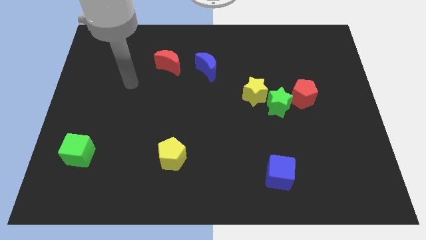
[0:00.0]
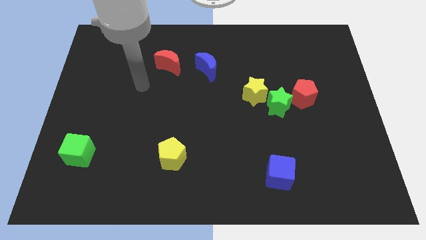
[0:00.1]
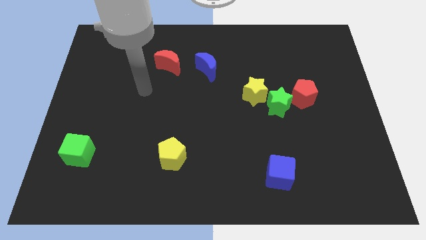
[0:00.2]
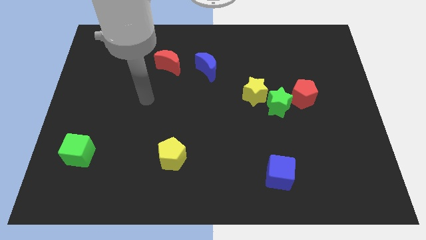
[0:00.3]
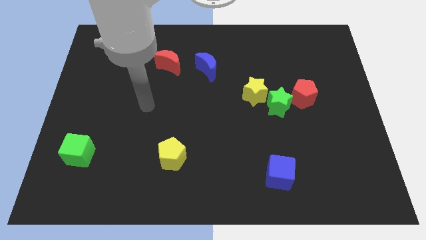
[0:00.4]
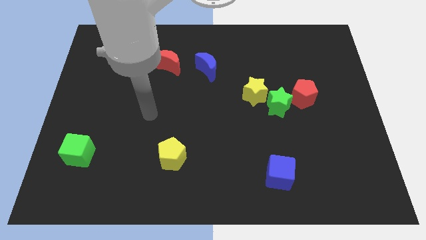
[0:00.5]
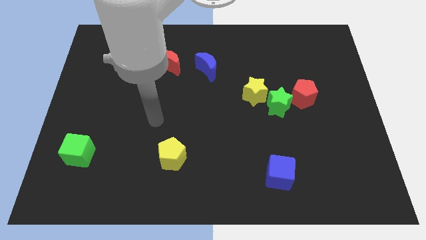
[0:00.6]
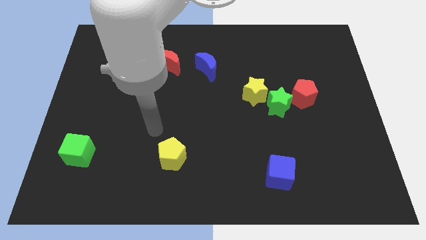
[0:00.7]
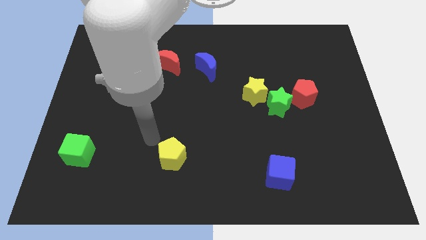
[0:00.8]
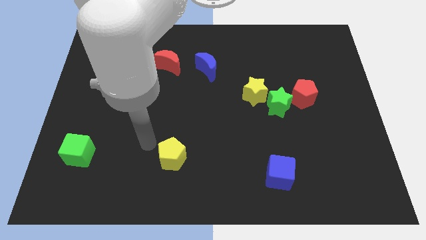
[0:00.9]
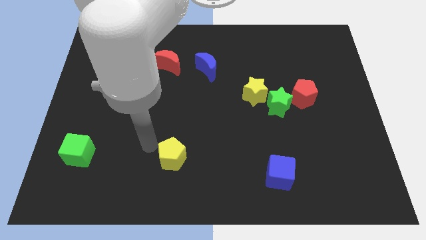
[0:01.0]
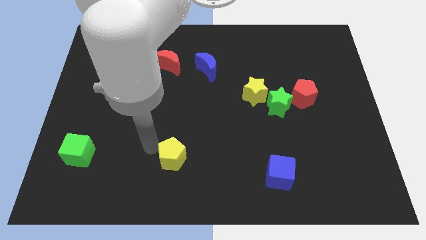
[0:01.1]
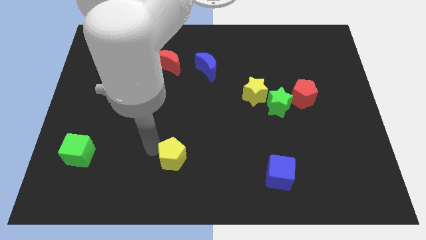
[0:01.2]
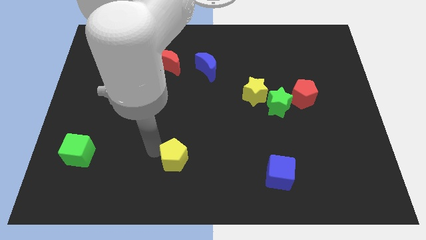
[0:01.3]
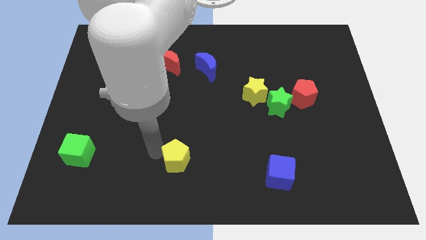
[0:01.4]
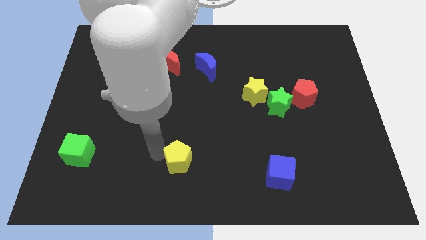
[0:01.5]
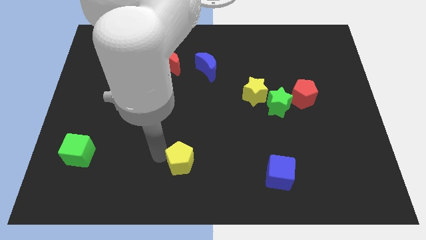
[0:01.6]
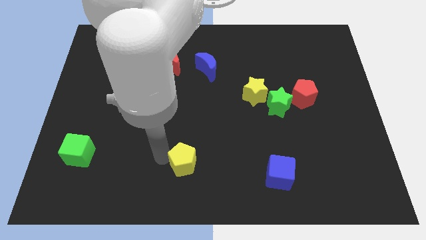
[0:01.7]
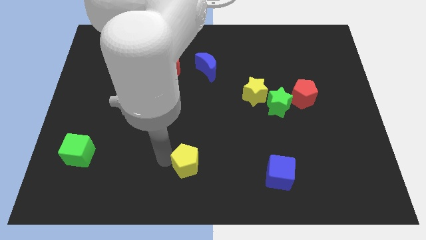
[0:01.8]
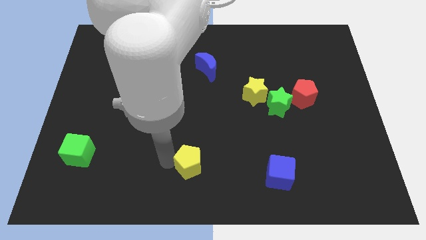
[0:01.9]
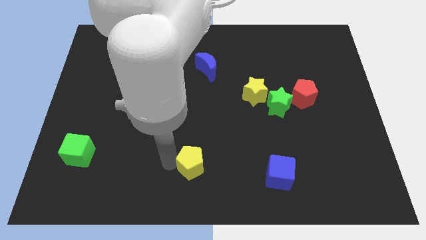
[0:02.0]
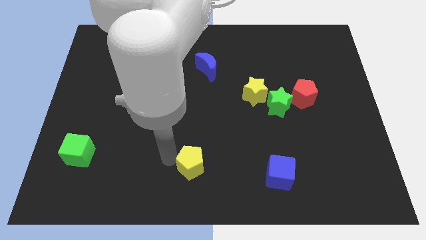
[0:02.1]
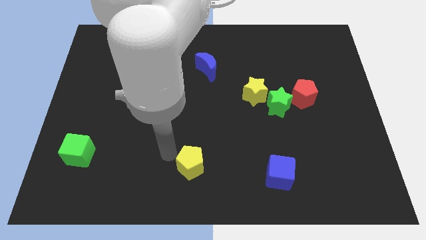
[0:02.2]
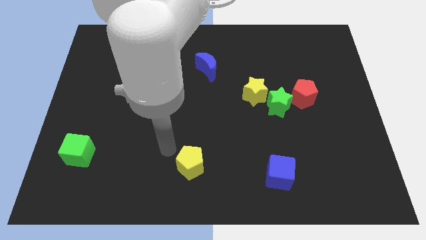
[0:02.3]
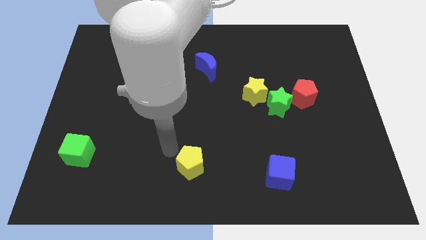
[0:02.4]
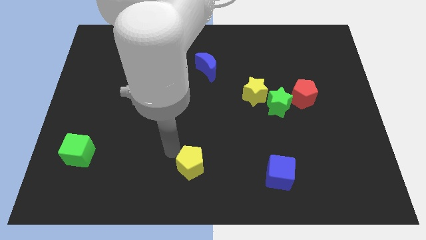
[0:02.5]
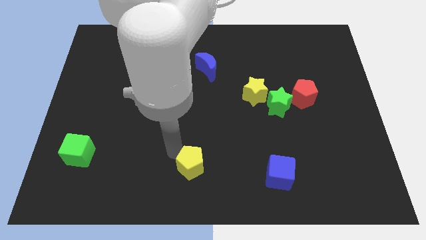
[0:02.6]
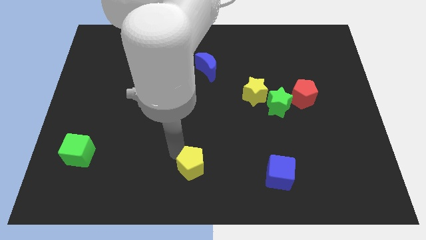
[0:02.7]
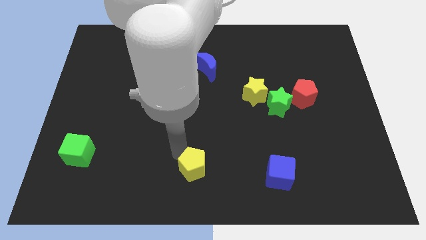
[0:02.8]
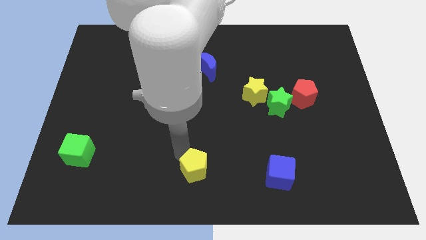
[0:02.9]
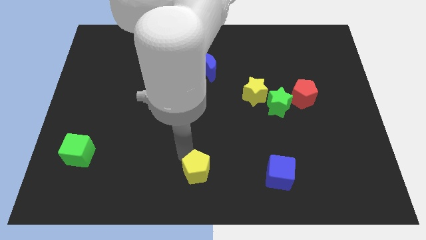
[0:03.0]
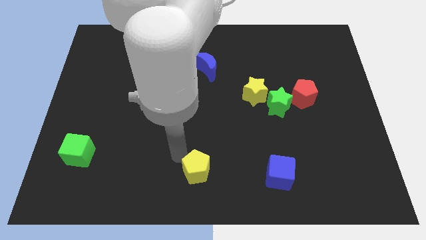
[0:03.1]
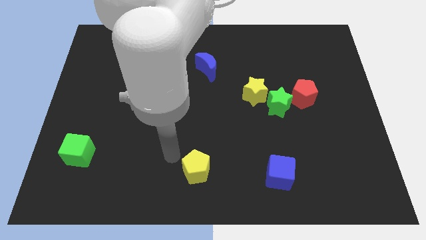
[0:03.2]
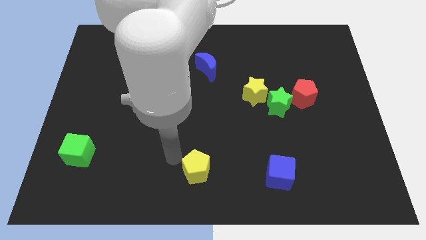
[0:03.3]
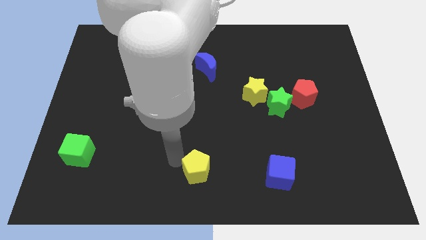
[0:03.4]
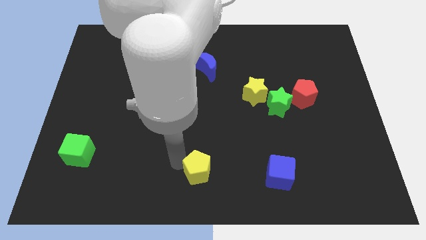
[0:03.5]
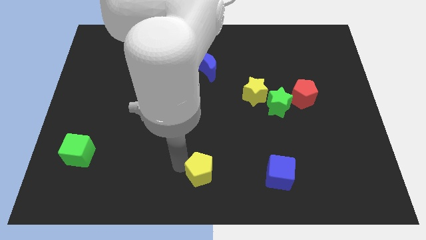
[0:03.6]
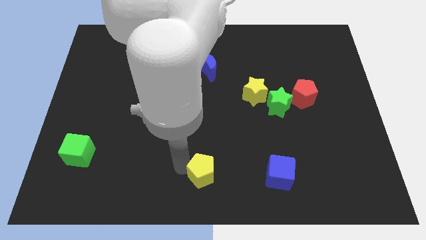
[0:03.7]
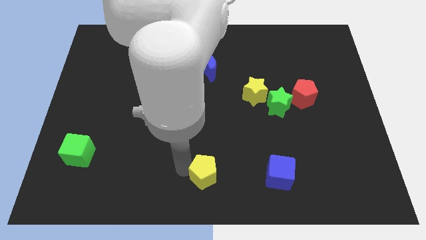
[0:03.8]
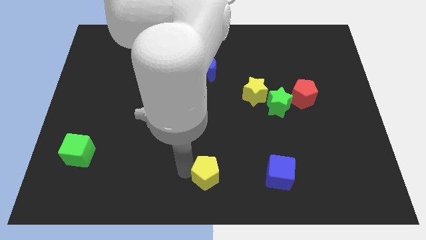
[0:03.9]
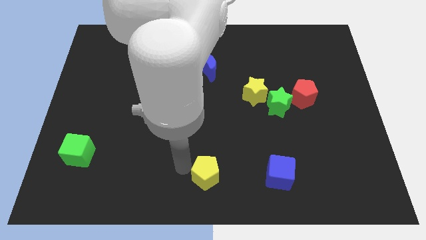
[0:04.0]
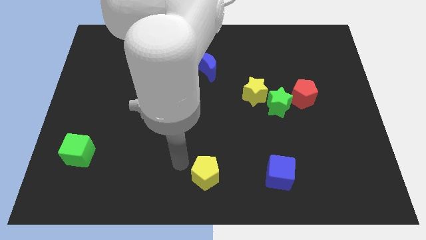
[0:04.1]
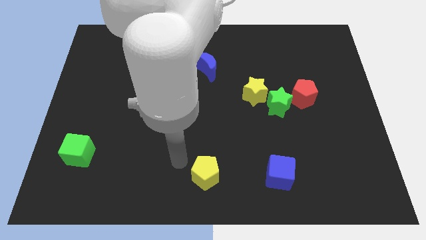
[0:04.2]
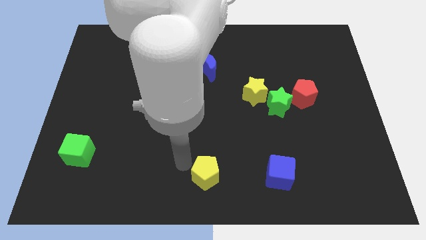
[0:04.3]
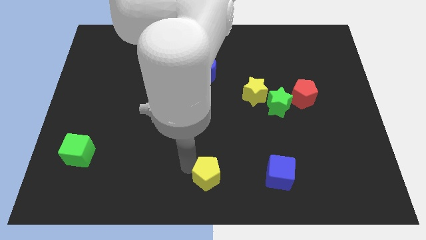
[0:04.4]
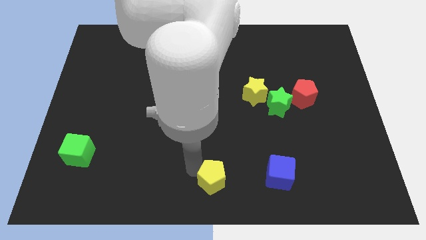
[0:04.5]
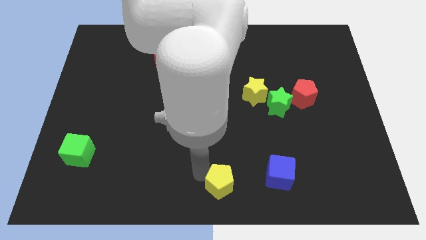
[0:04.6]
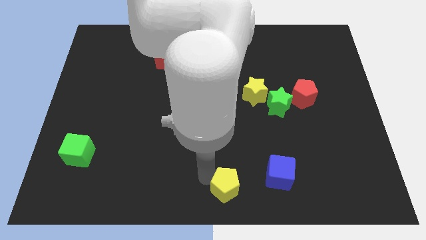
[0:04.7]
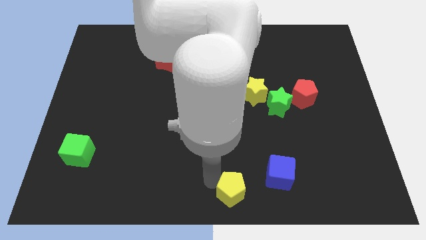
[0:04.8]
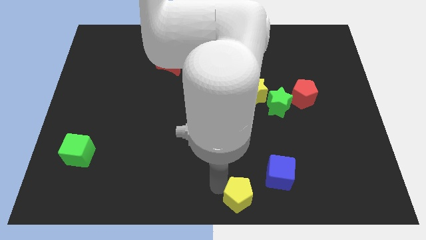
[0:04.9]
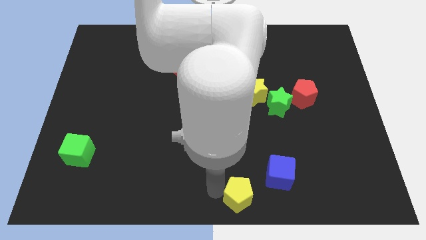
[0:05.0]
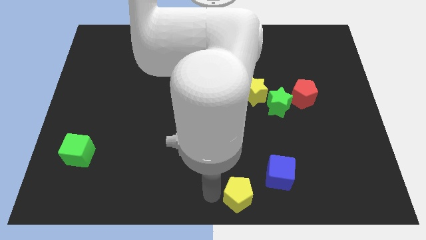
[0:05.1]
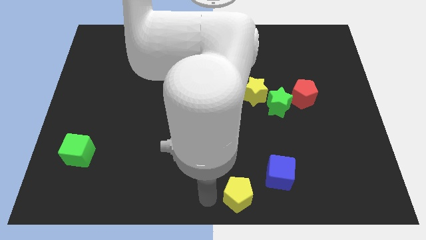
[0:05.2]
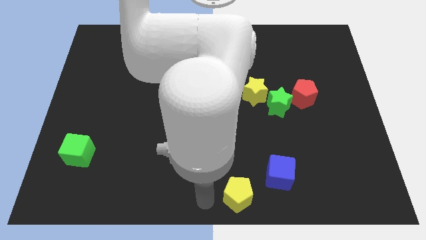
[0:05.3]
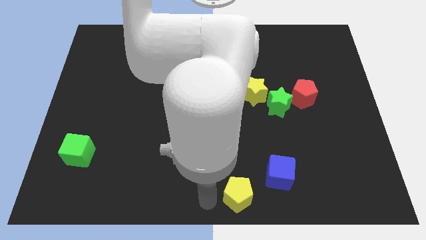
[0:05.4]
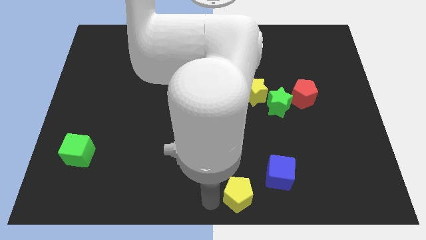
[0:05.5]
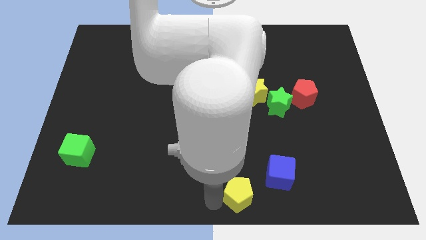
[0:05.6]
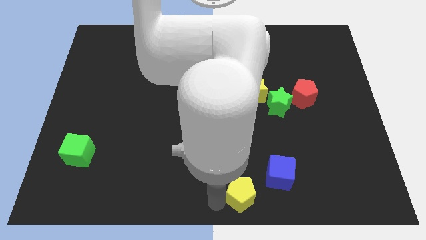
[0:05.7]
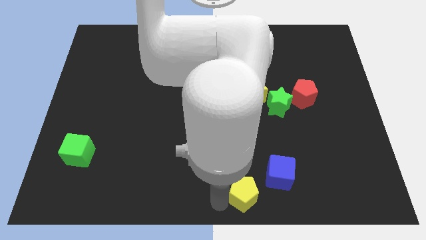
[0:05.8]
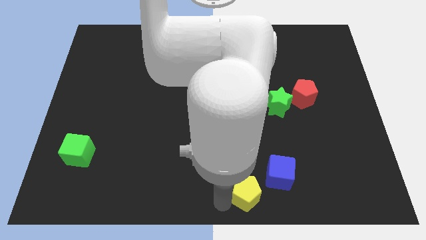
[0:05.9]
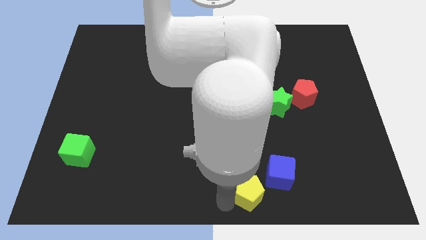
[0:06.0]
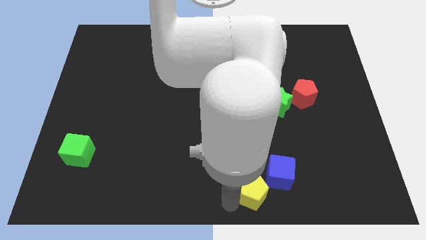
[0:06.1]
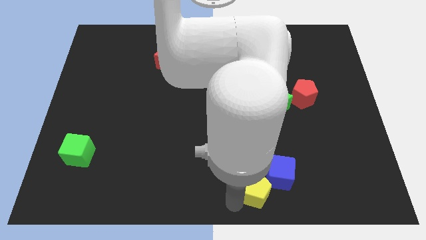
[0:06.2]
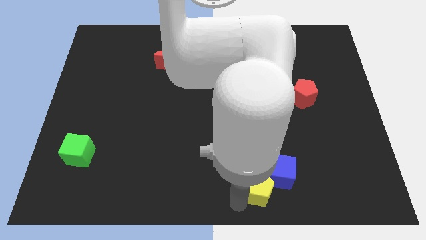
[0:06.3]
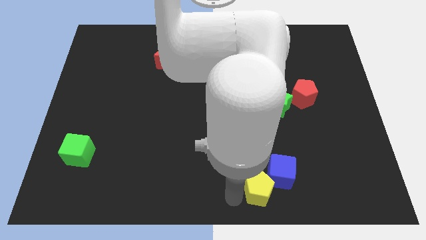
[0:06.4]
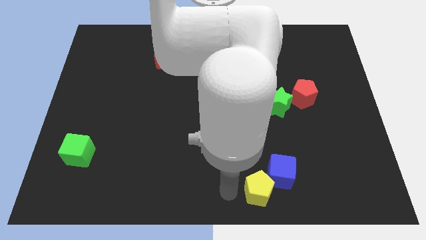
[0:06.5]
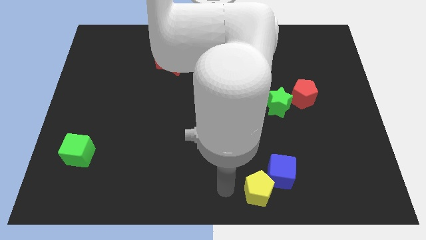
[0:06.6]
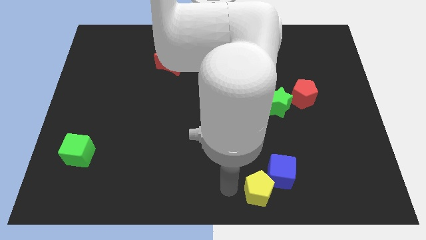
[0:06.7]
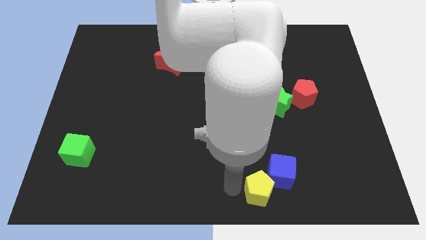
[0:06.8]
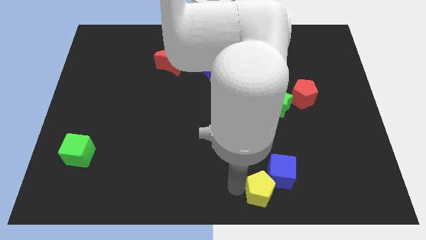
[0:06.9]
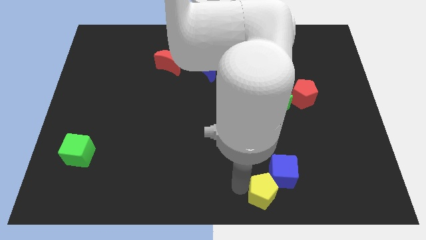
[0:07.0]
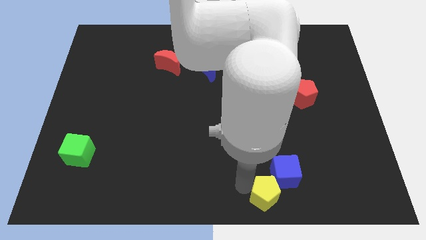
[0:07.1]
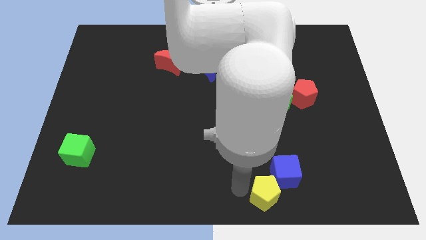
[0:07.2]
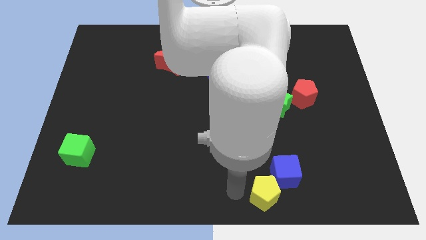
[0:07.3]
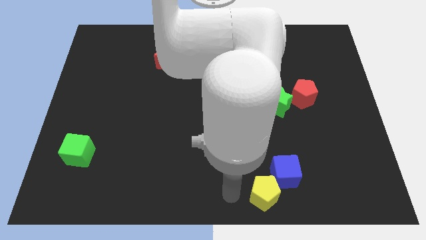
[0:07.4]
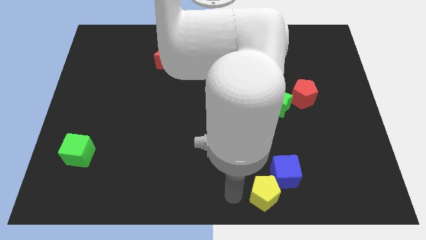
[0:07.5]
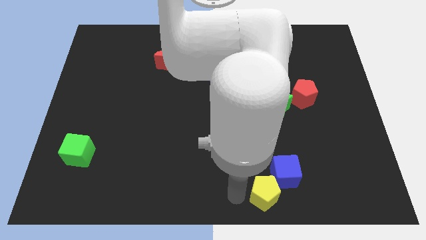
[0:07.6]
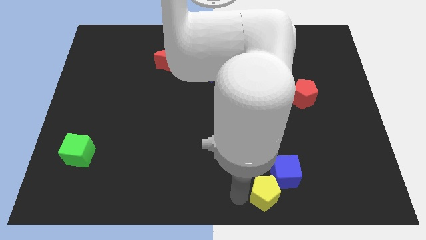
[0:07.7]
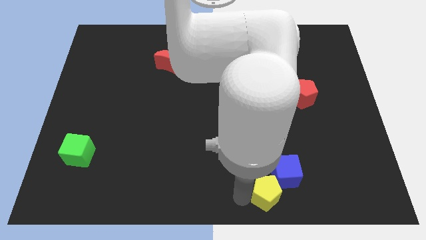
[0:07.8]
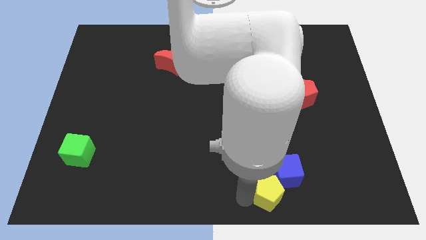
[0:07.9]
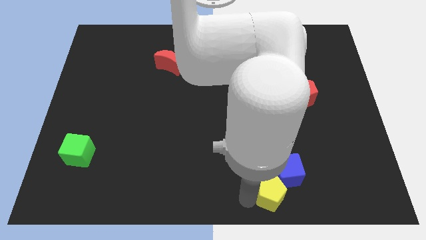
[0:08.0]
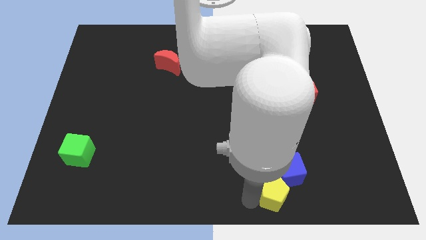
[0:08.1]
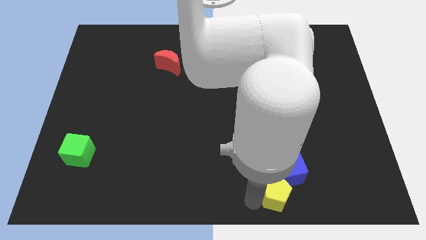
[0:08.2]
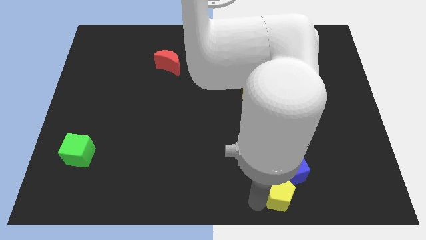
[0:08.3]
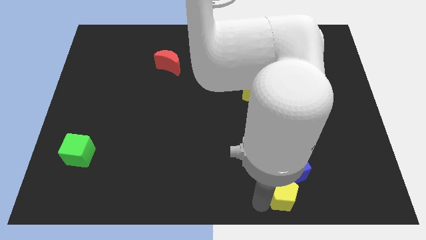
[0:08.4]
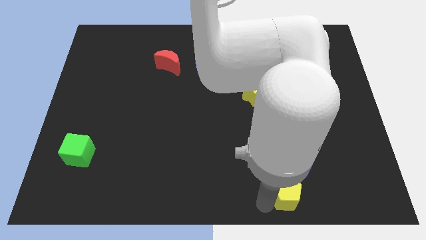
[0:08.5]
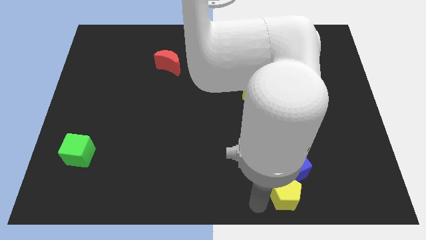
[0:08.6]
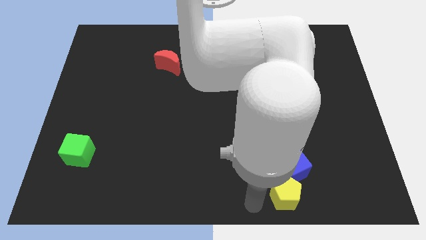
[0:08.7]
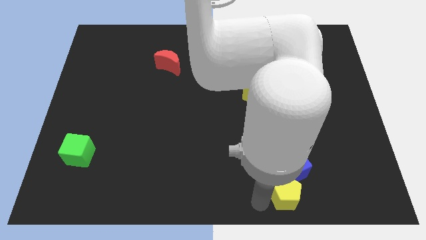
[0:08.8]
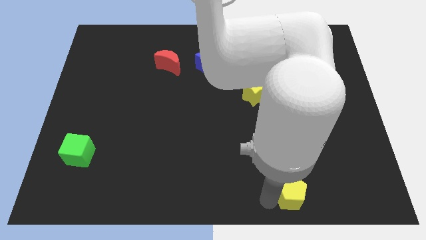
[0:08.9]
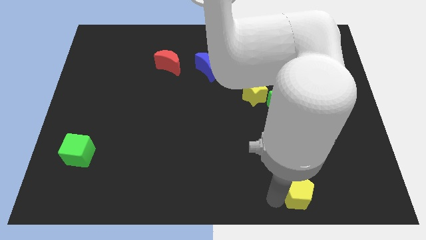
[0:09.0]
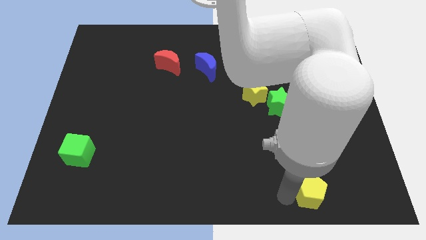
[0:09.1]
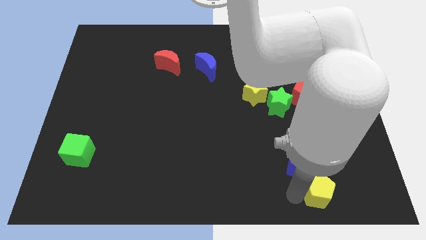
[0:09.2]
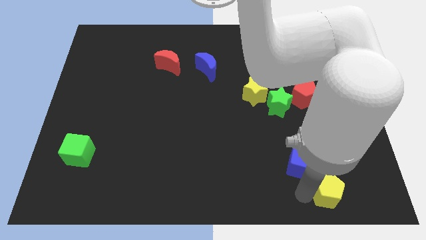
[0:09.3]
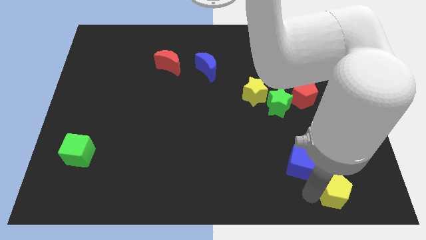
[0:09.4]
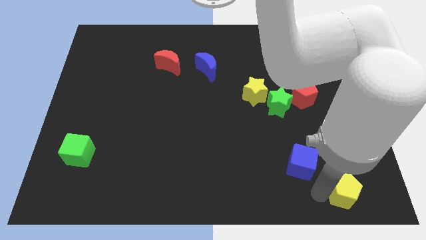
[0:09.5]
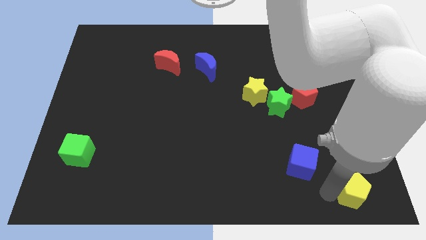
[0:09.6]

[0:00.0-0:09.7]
push the yellow pentagon to the bottom right corner
